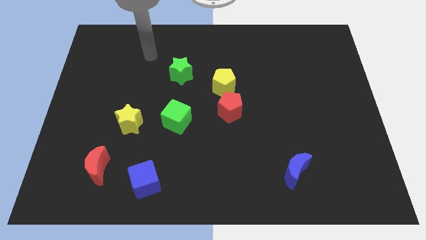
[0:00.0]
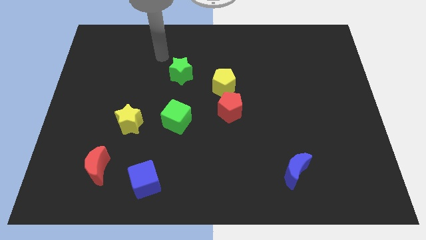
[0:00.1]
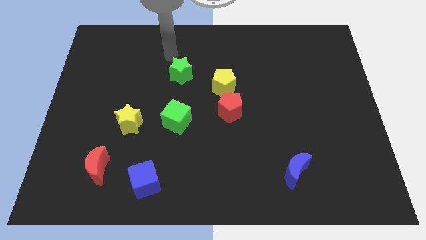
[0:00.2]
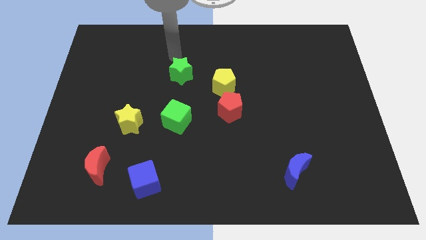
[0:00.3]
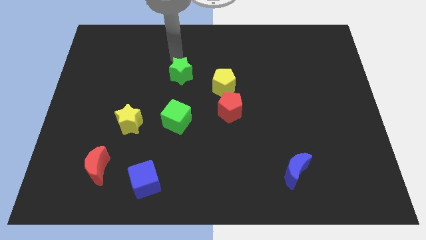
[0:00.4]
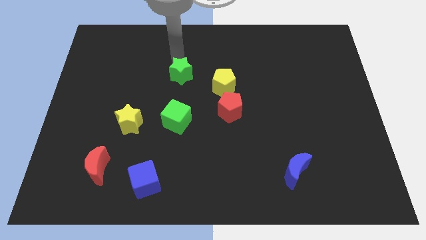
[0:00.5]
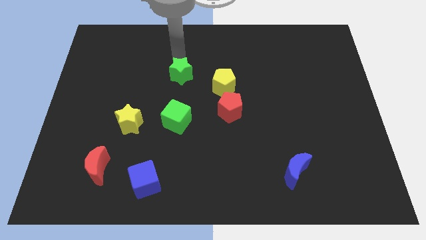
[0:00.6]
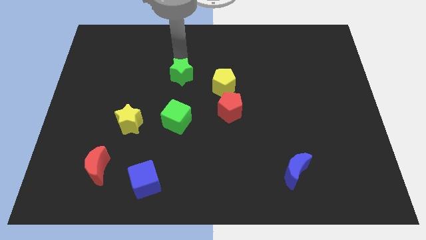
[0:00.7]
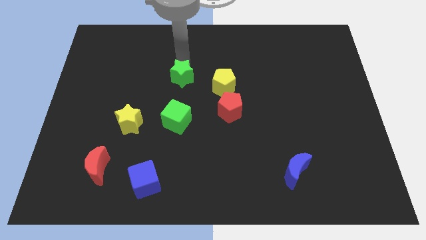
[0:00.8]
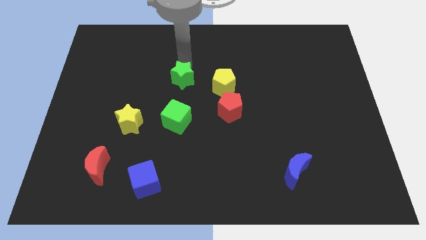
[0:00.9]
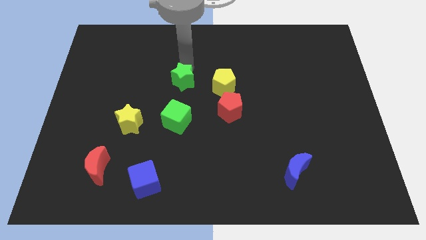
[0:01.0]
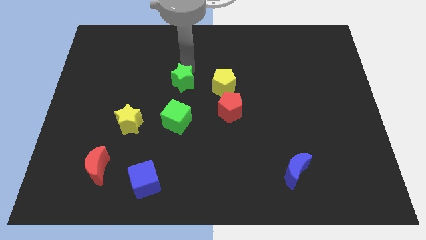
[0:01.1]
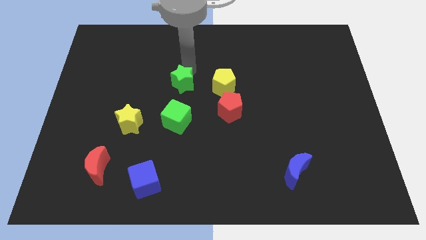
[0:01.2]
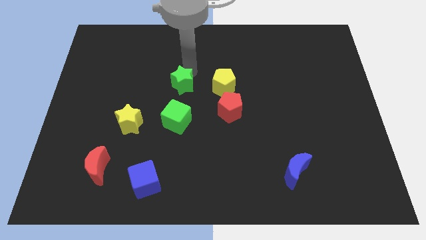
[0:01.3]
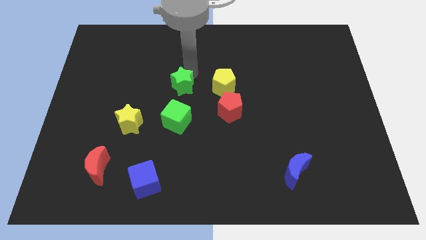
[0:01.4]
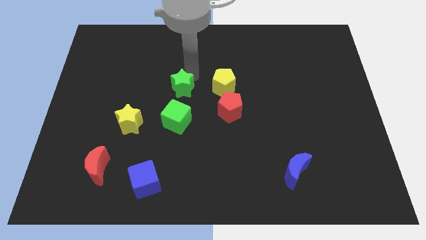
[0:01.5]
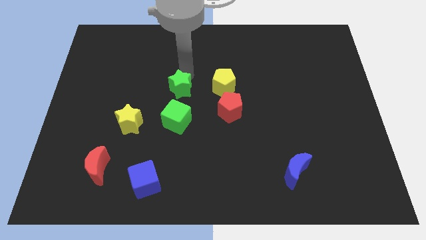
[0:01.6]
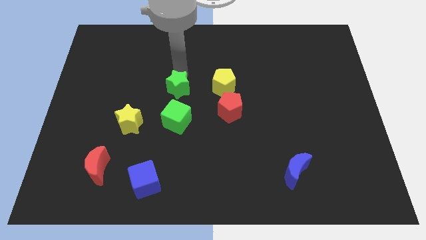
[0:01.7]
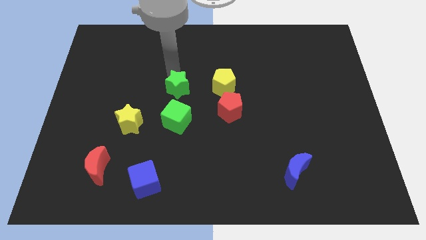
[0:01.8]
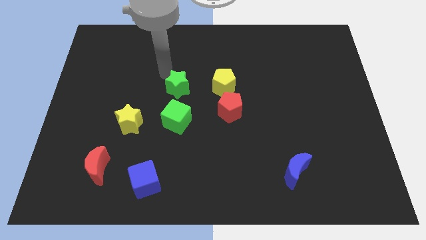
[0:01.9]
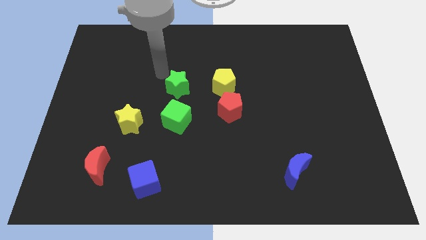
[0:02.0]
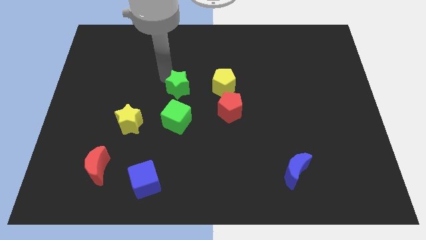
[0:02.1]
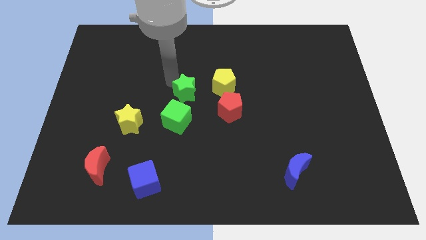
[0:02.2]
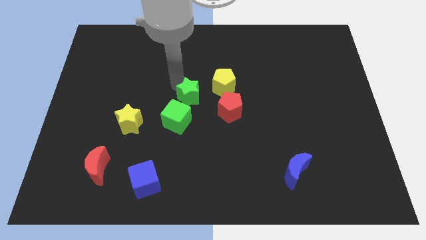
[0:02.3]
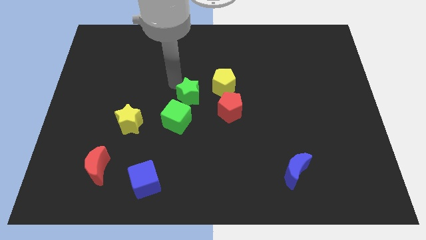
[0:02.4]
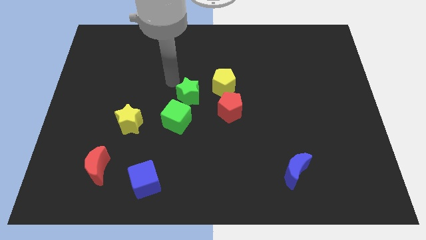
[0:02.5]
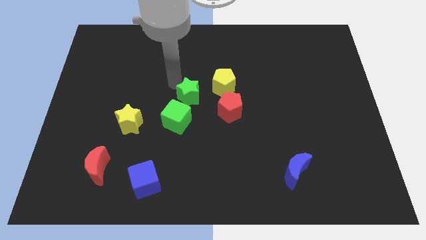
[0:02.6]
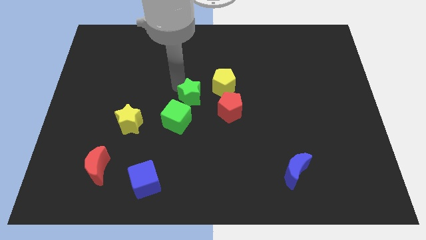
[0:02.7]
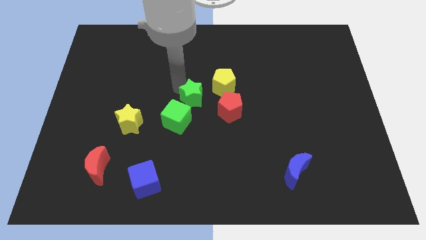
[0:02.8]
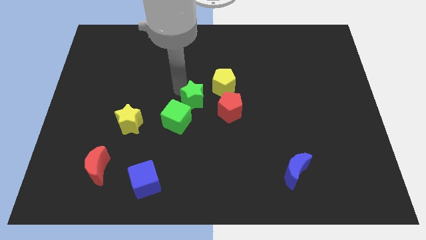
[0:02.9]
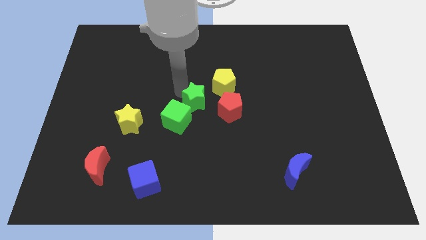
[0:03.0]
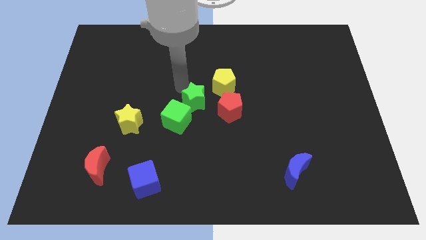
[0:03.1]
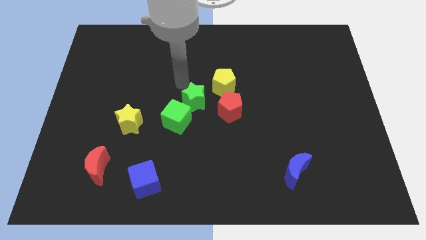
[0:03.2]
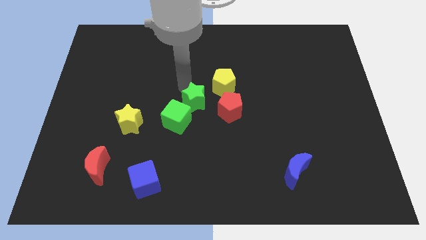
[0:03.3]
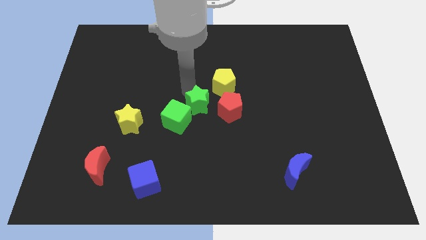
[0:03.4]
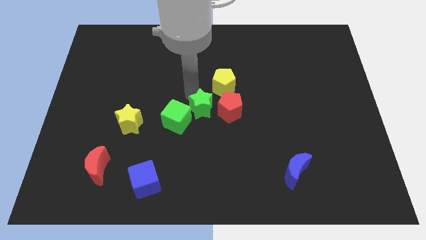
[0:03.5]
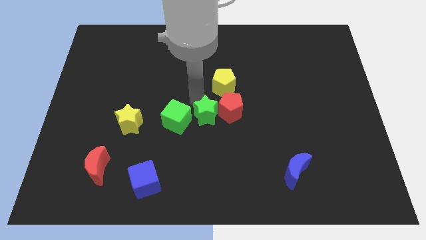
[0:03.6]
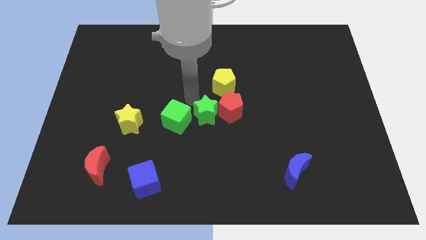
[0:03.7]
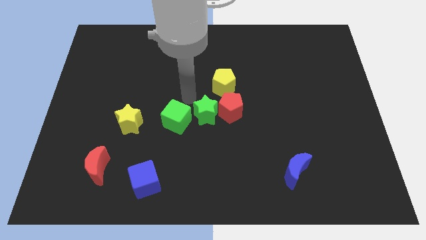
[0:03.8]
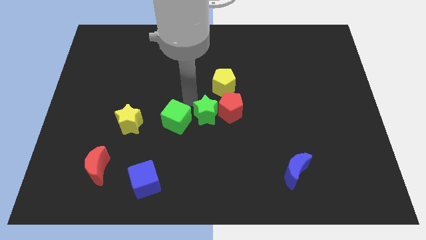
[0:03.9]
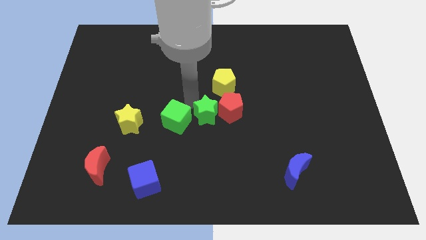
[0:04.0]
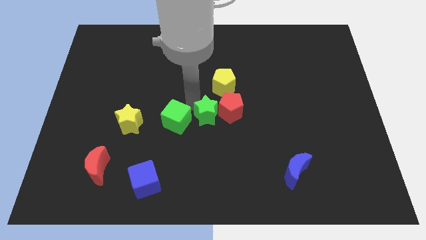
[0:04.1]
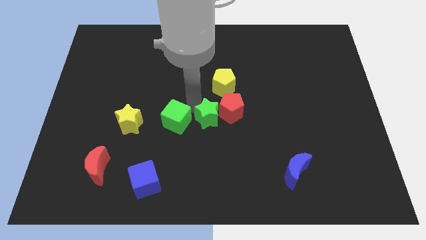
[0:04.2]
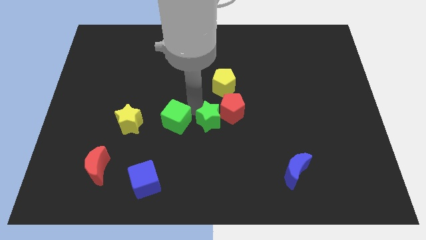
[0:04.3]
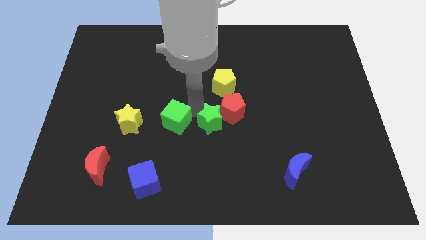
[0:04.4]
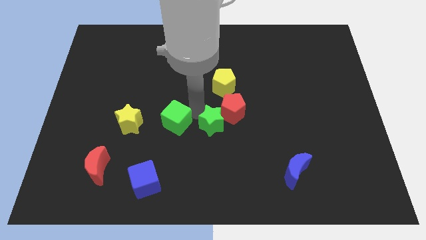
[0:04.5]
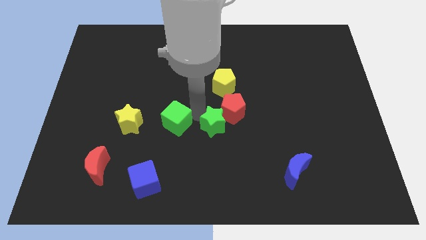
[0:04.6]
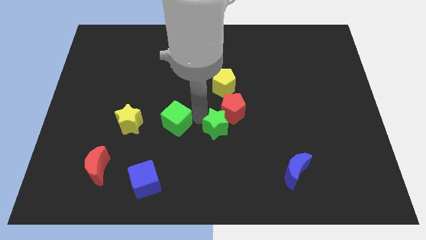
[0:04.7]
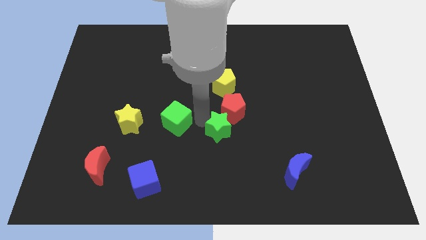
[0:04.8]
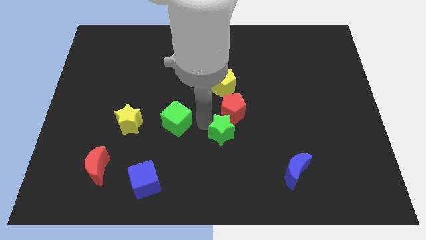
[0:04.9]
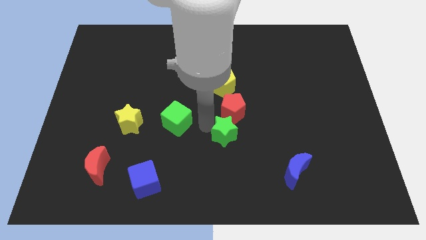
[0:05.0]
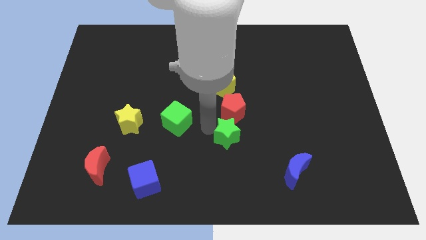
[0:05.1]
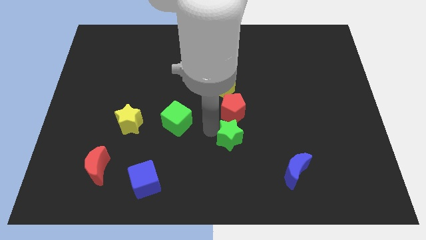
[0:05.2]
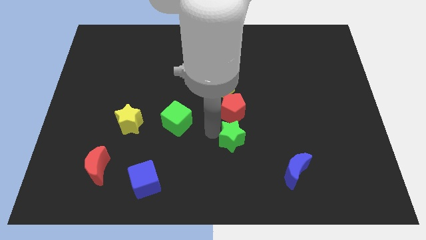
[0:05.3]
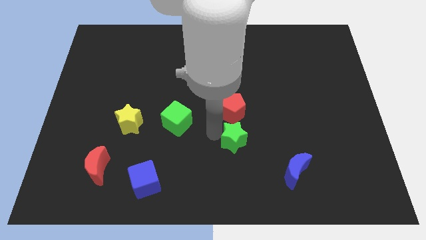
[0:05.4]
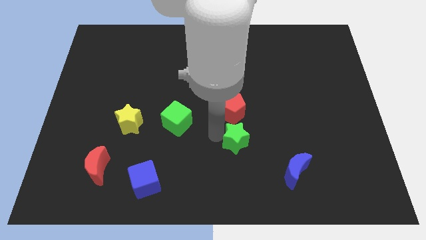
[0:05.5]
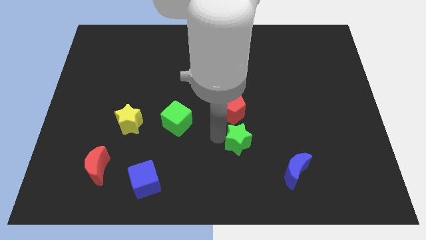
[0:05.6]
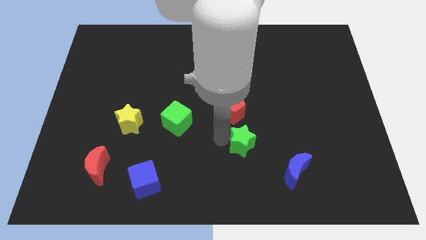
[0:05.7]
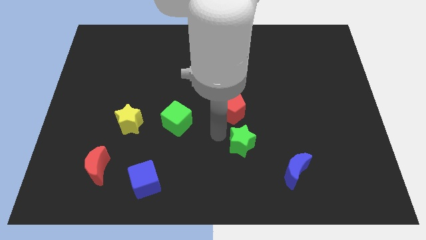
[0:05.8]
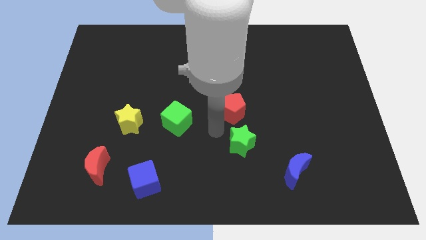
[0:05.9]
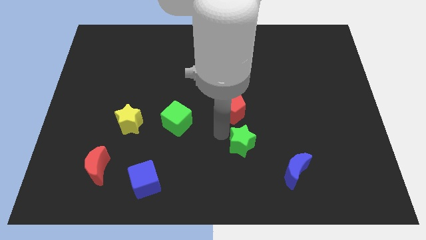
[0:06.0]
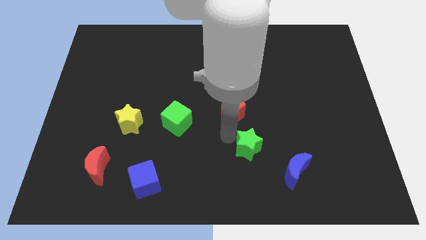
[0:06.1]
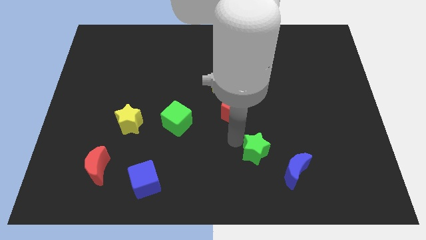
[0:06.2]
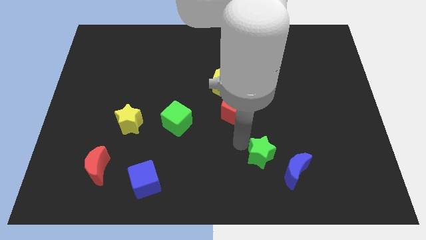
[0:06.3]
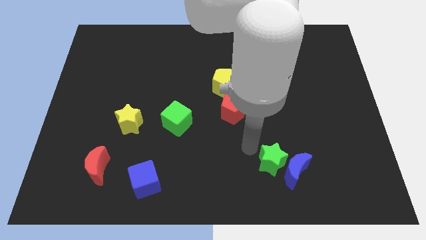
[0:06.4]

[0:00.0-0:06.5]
slide the green star to the blue moon

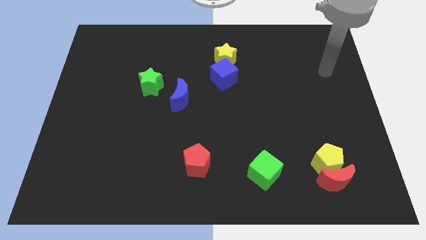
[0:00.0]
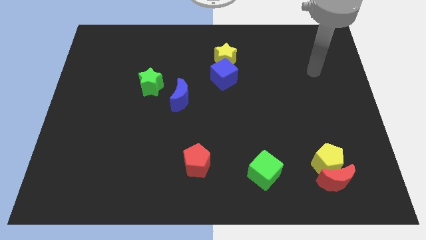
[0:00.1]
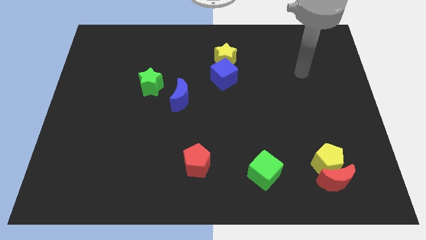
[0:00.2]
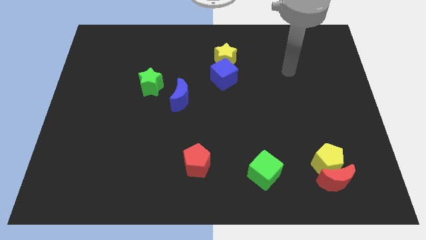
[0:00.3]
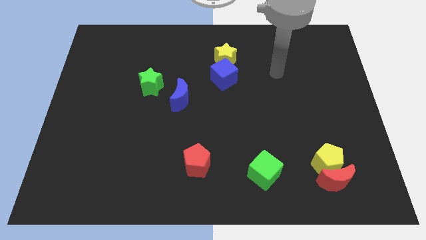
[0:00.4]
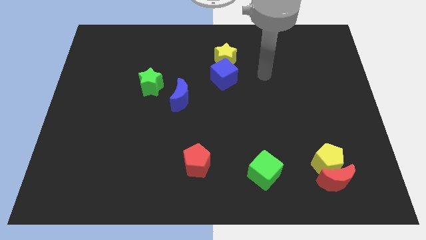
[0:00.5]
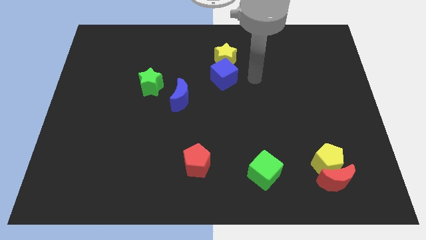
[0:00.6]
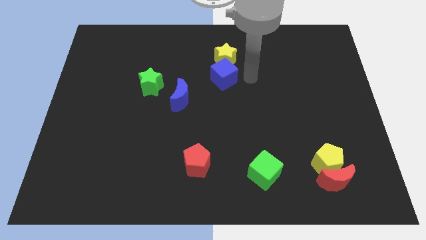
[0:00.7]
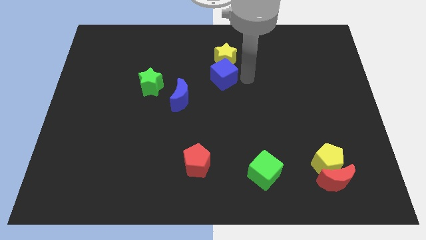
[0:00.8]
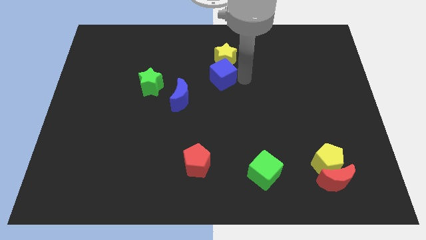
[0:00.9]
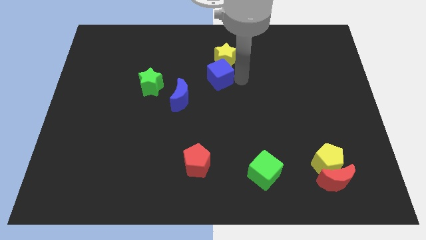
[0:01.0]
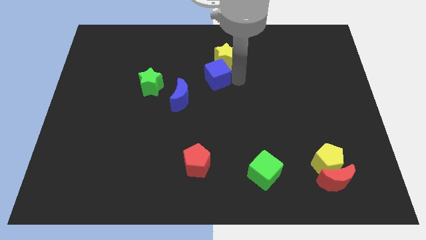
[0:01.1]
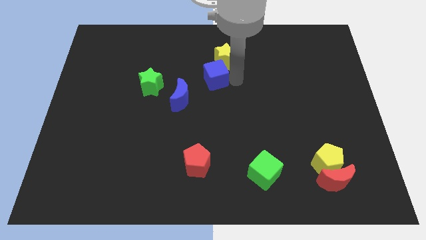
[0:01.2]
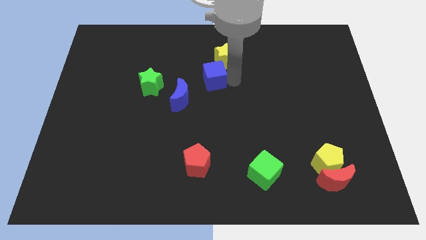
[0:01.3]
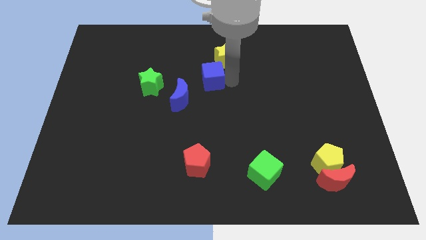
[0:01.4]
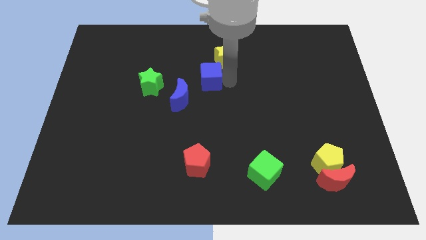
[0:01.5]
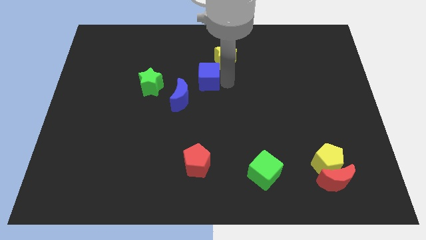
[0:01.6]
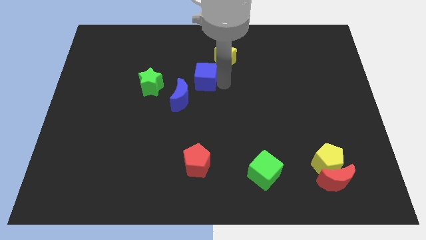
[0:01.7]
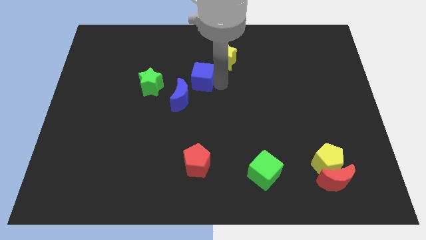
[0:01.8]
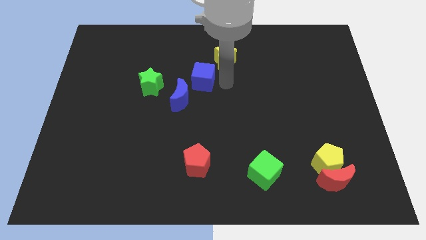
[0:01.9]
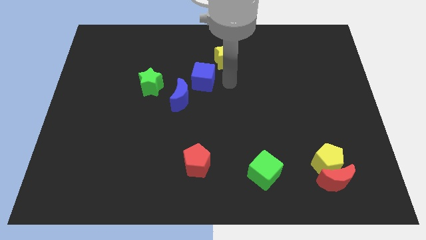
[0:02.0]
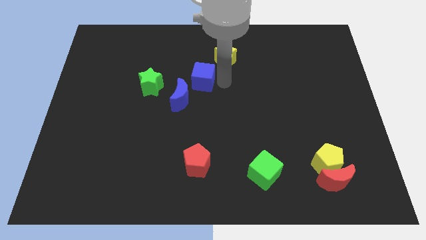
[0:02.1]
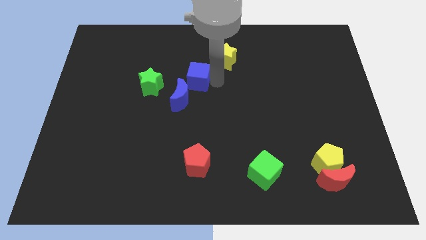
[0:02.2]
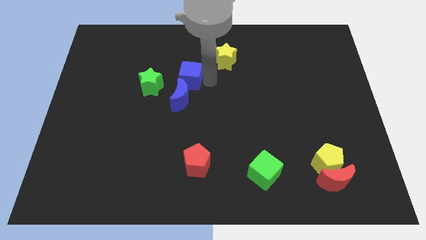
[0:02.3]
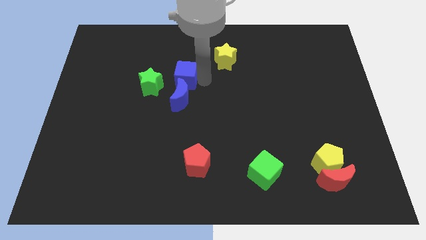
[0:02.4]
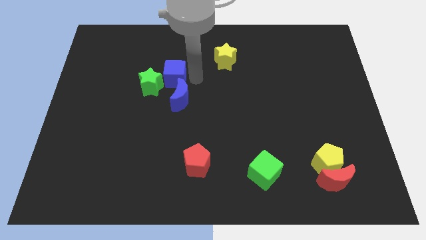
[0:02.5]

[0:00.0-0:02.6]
put the blue cube to the green star
